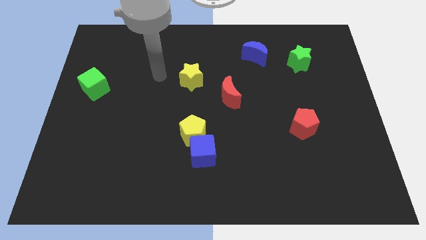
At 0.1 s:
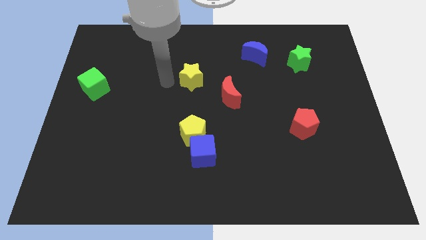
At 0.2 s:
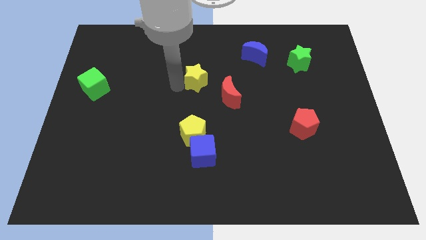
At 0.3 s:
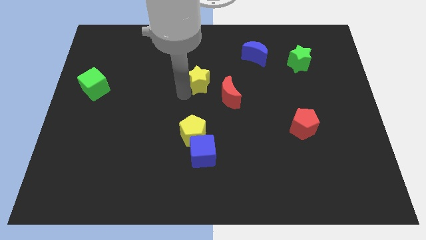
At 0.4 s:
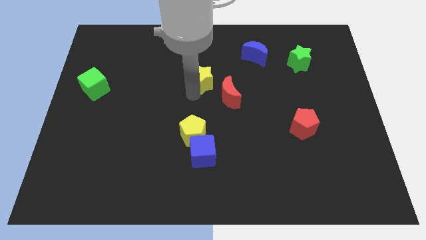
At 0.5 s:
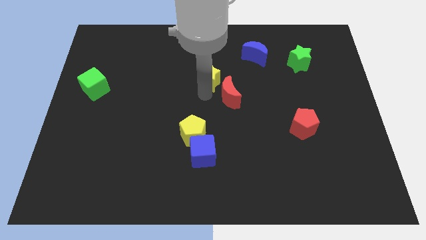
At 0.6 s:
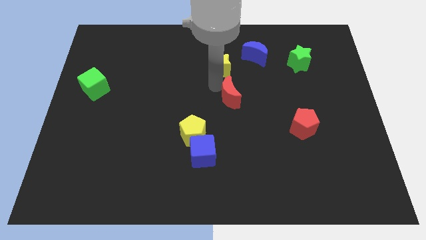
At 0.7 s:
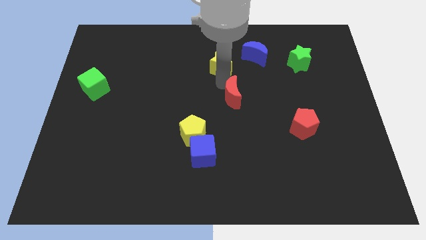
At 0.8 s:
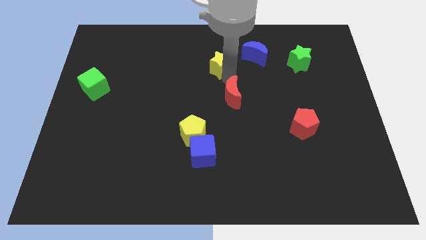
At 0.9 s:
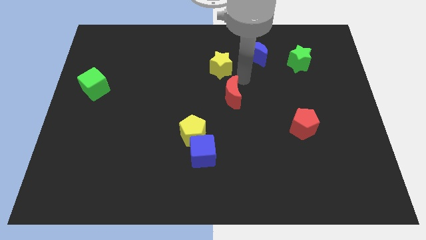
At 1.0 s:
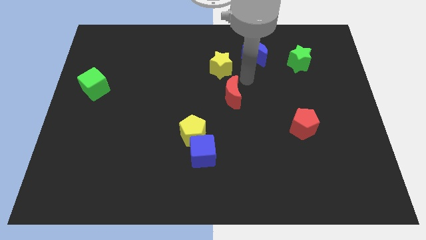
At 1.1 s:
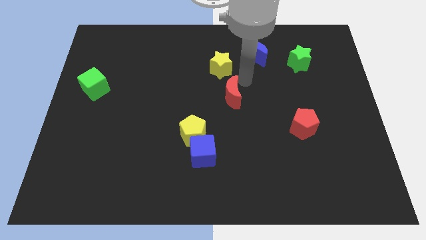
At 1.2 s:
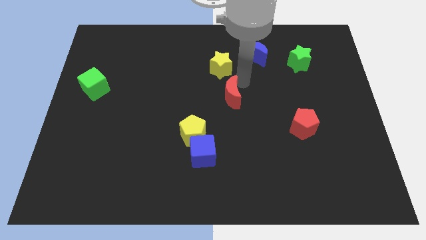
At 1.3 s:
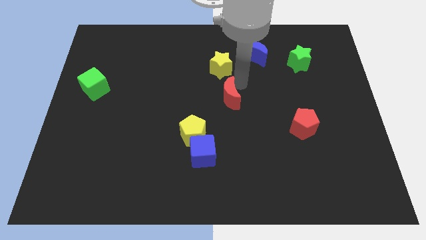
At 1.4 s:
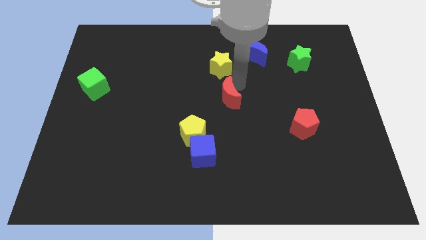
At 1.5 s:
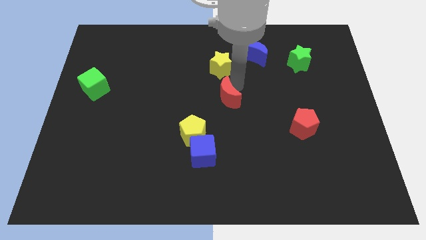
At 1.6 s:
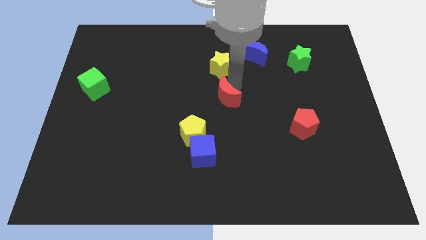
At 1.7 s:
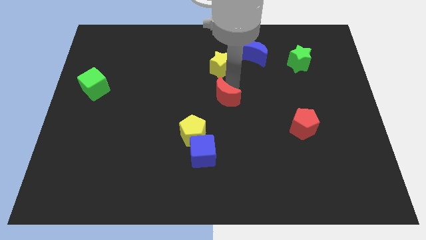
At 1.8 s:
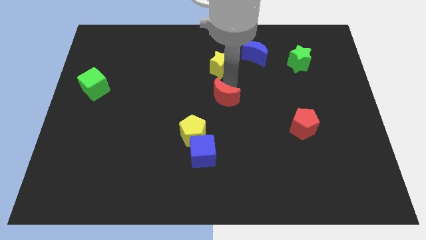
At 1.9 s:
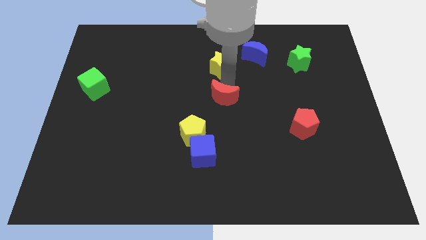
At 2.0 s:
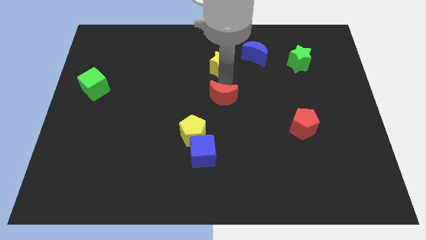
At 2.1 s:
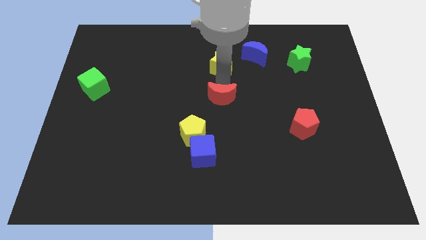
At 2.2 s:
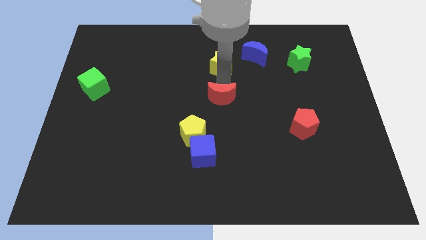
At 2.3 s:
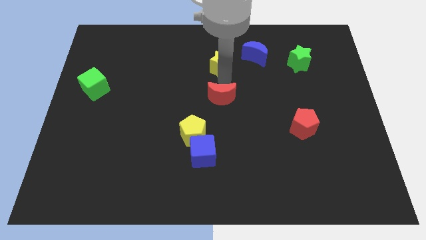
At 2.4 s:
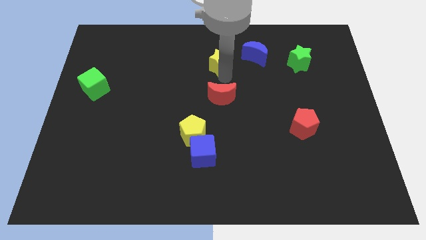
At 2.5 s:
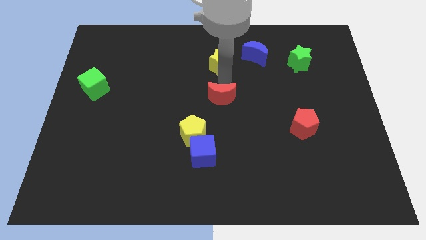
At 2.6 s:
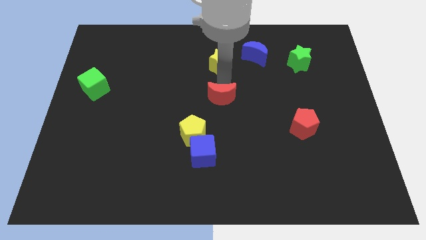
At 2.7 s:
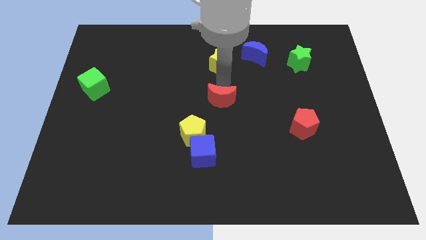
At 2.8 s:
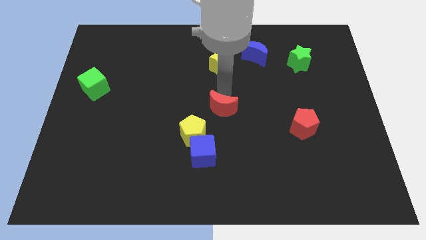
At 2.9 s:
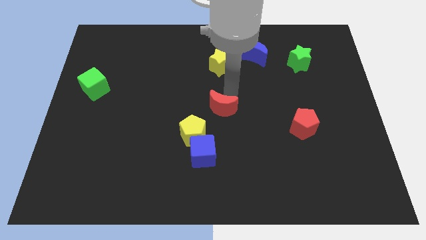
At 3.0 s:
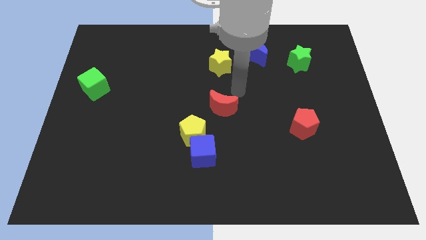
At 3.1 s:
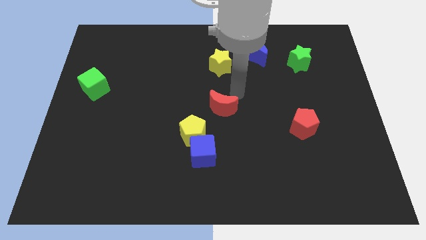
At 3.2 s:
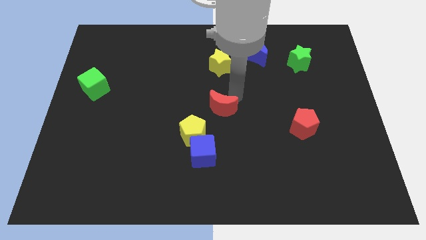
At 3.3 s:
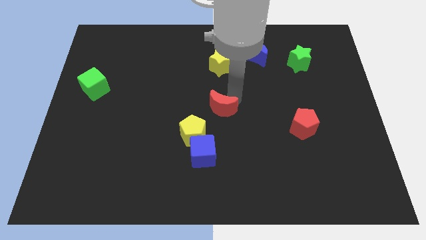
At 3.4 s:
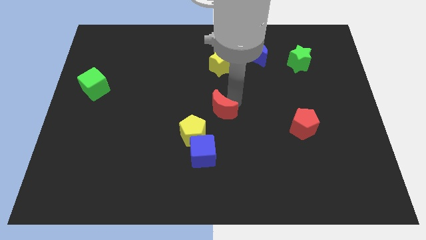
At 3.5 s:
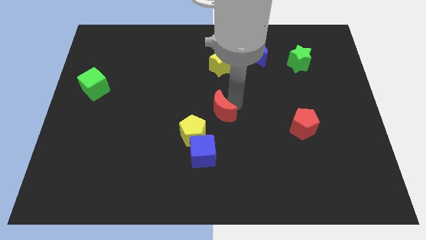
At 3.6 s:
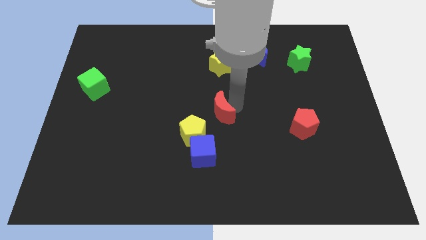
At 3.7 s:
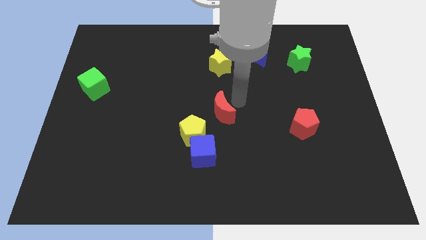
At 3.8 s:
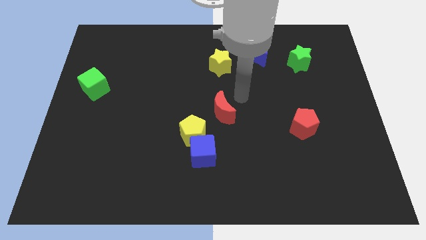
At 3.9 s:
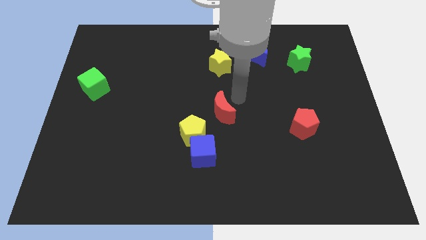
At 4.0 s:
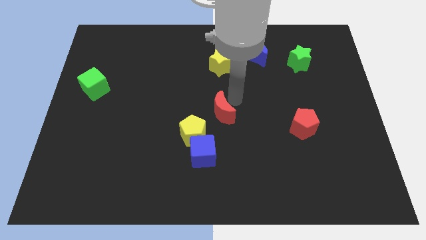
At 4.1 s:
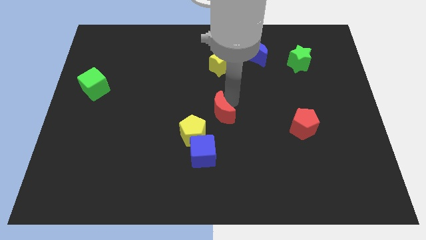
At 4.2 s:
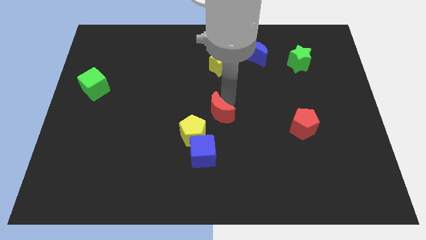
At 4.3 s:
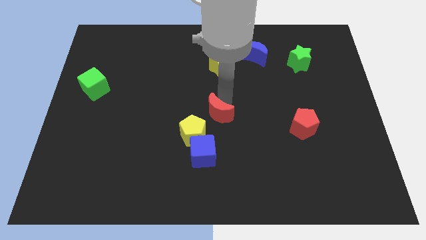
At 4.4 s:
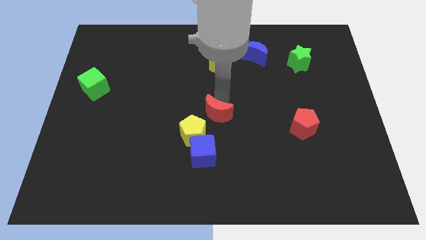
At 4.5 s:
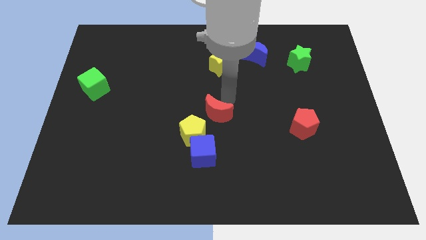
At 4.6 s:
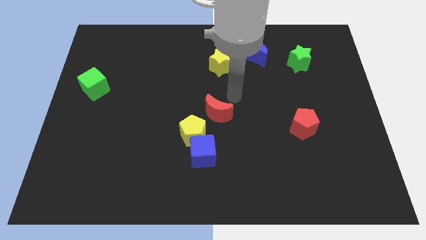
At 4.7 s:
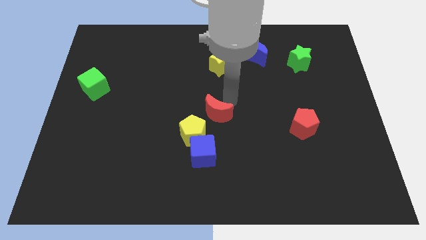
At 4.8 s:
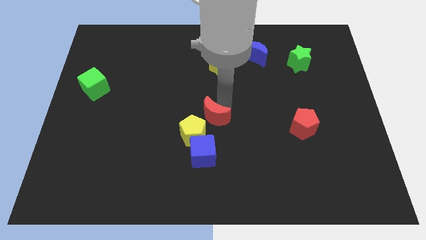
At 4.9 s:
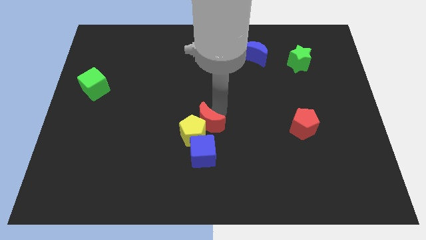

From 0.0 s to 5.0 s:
push the red moon next to the yellow pentagon

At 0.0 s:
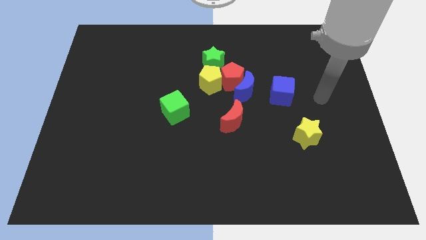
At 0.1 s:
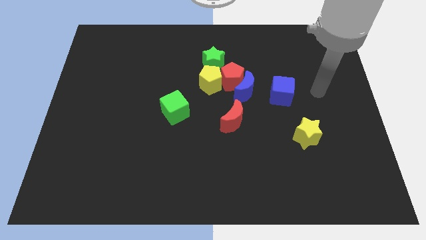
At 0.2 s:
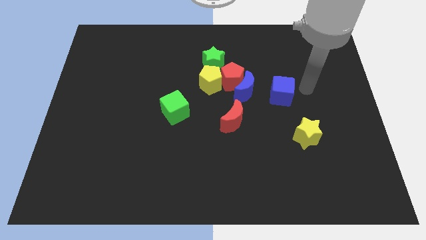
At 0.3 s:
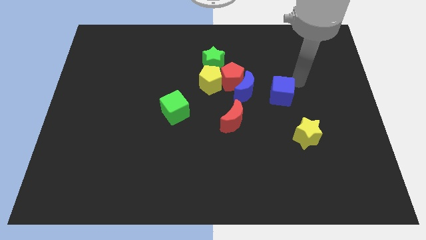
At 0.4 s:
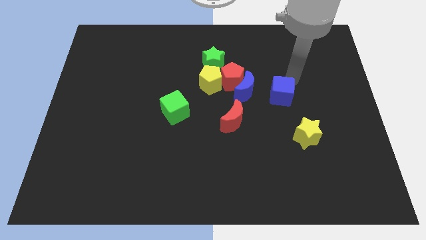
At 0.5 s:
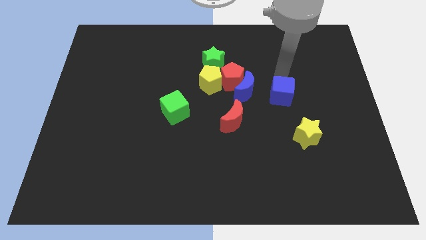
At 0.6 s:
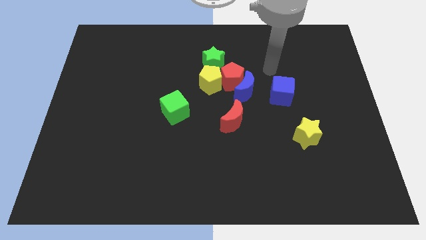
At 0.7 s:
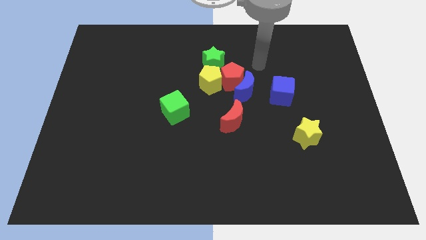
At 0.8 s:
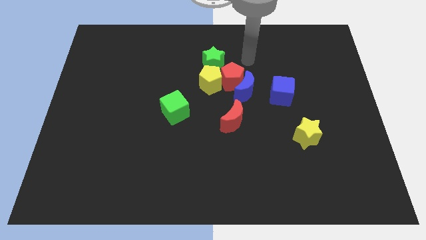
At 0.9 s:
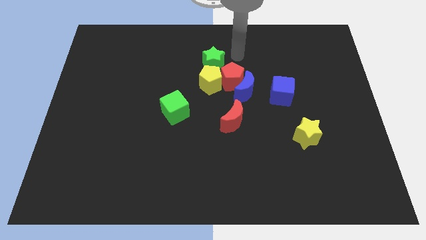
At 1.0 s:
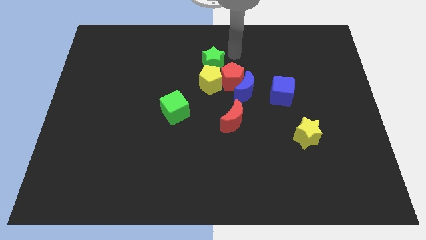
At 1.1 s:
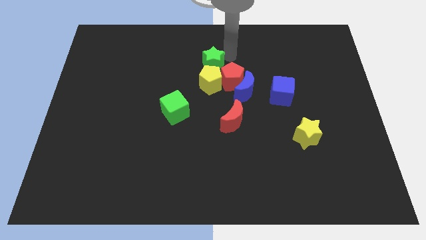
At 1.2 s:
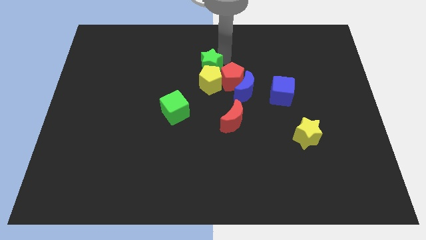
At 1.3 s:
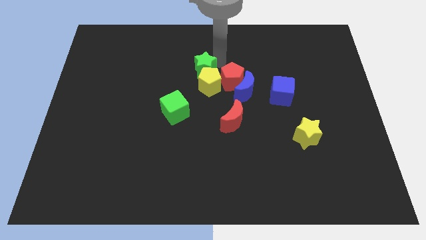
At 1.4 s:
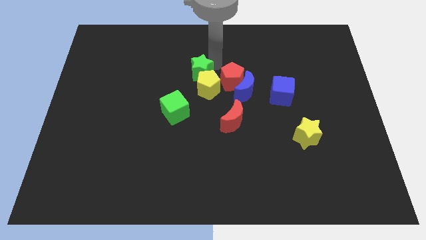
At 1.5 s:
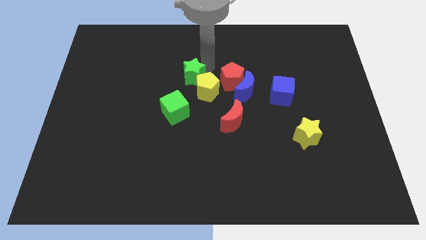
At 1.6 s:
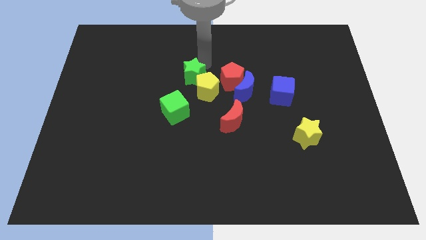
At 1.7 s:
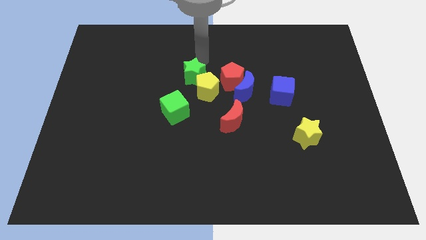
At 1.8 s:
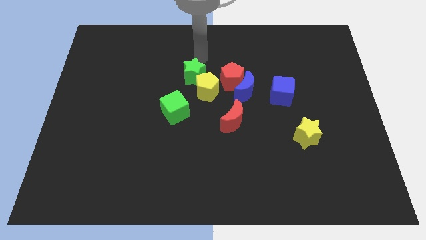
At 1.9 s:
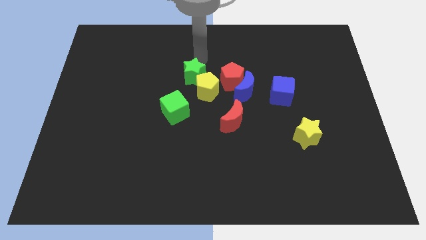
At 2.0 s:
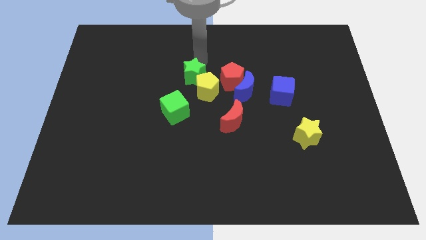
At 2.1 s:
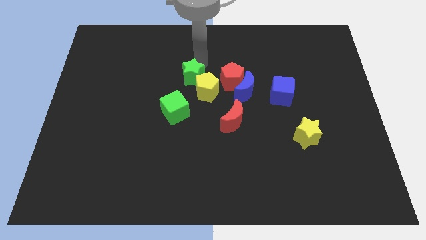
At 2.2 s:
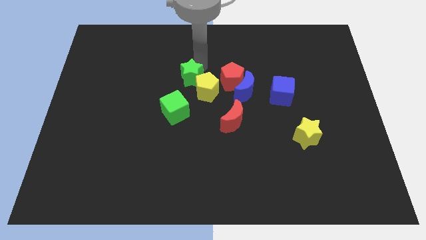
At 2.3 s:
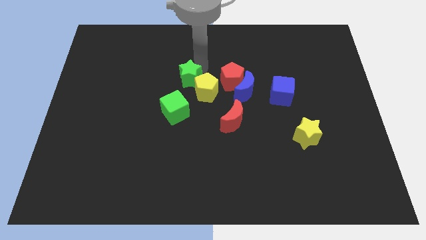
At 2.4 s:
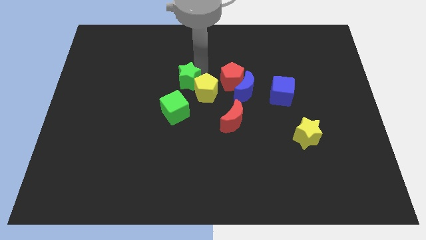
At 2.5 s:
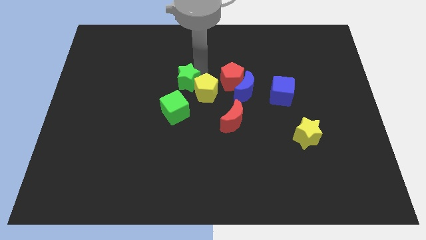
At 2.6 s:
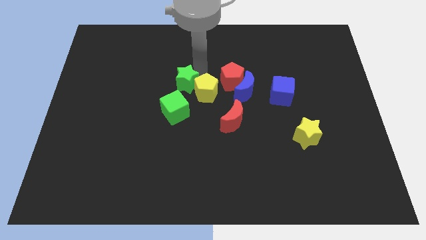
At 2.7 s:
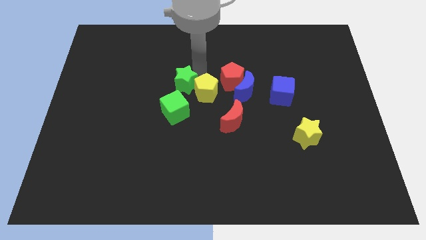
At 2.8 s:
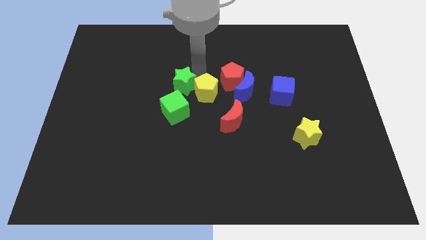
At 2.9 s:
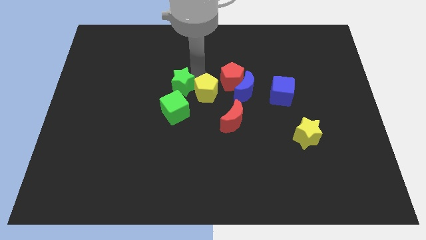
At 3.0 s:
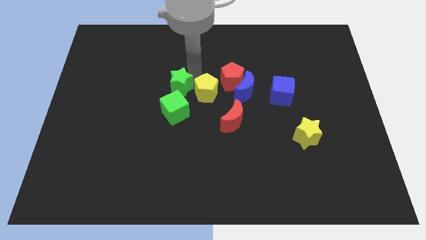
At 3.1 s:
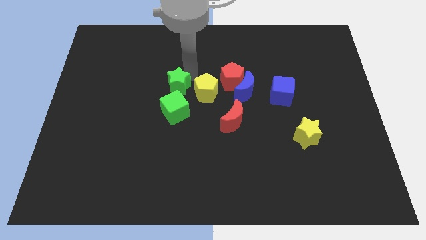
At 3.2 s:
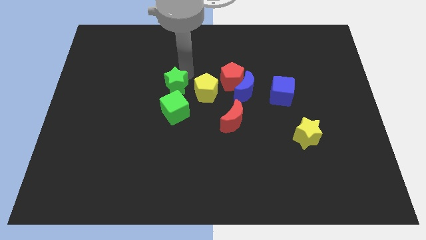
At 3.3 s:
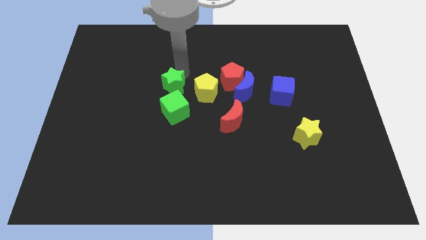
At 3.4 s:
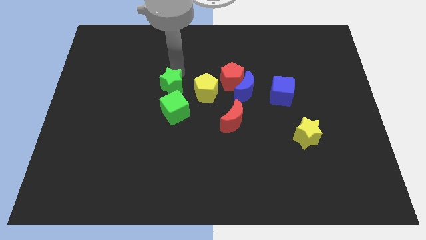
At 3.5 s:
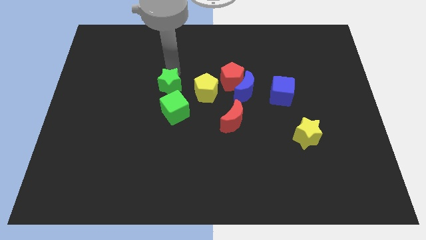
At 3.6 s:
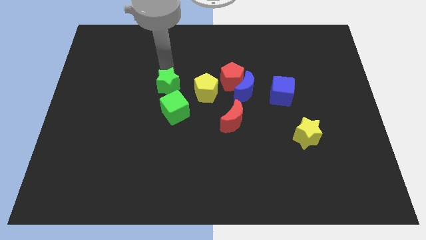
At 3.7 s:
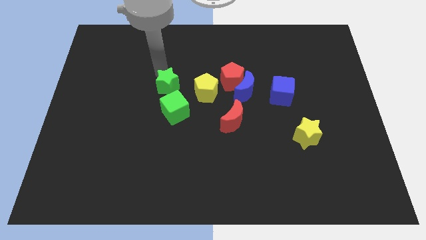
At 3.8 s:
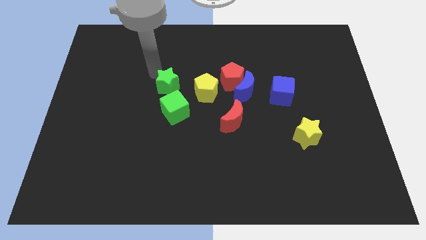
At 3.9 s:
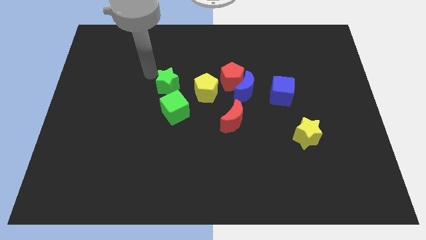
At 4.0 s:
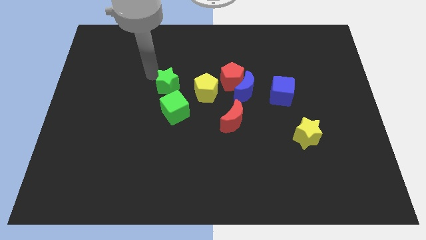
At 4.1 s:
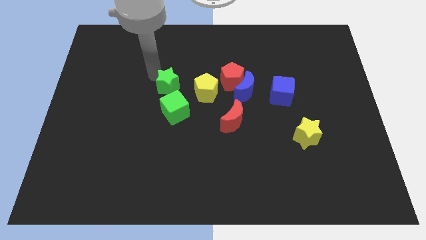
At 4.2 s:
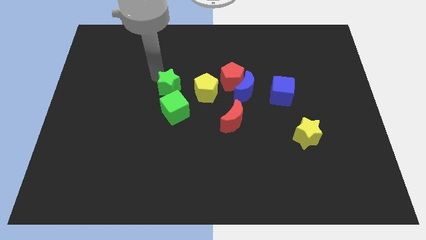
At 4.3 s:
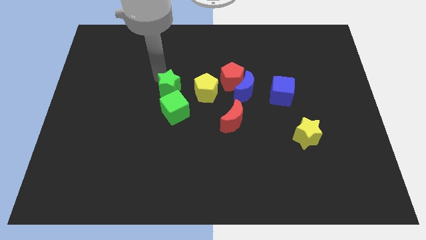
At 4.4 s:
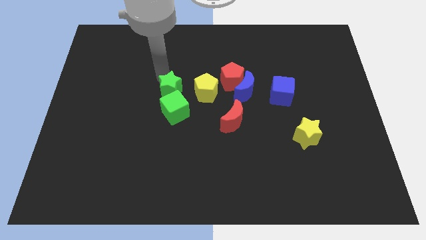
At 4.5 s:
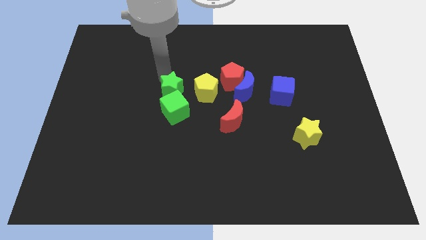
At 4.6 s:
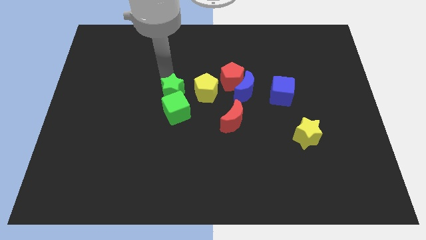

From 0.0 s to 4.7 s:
push the green star towards the green cube
